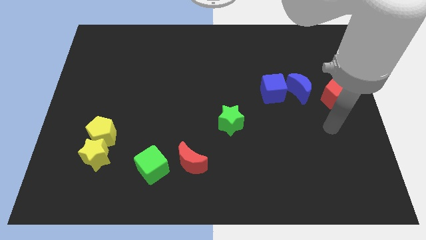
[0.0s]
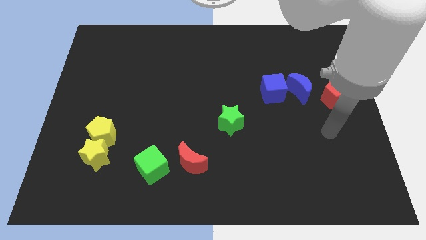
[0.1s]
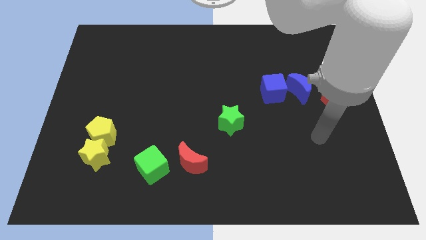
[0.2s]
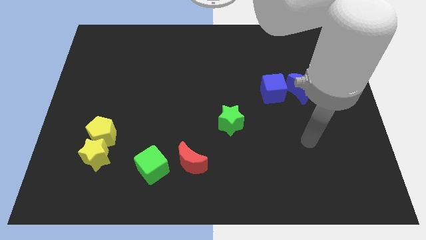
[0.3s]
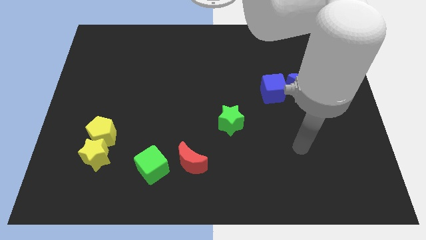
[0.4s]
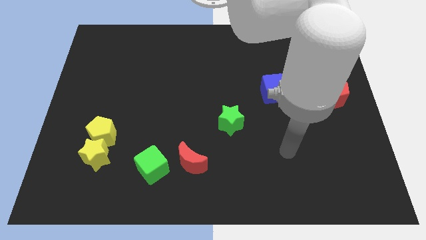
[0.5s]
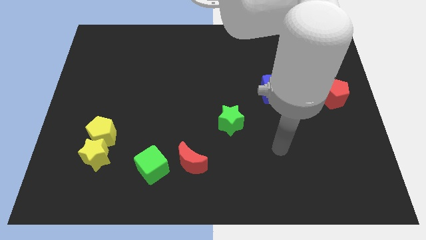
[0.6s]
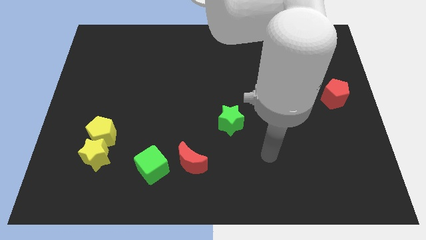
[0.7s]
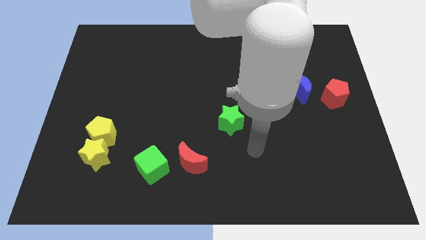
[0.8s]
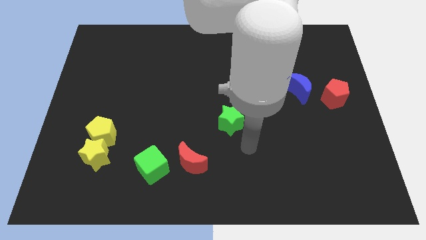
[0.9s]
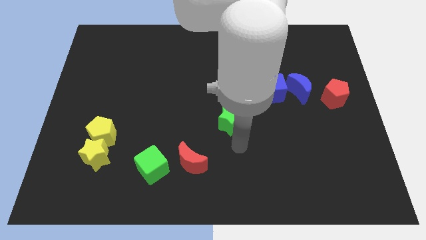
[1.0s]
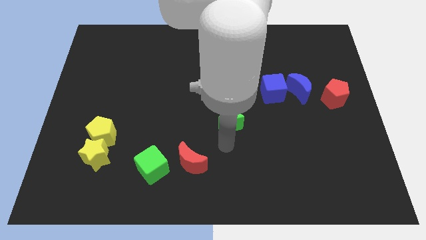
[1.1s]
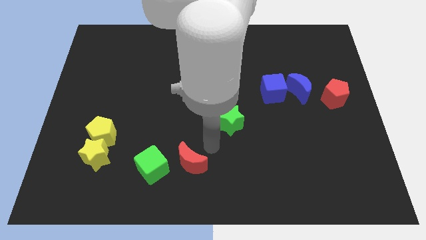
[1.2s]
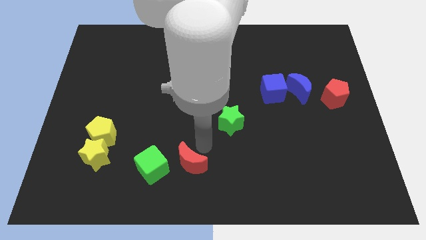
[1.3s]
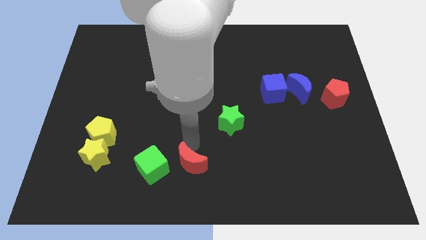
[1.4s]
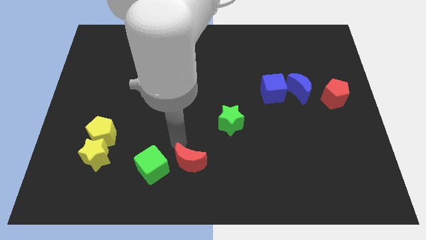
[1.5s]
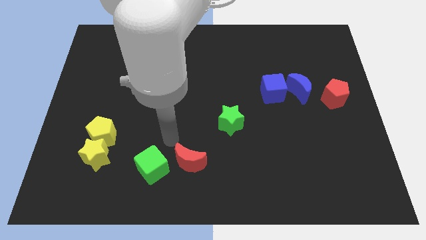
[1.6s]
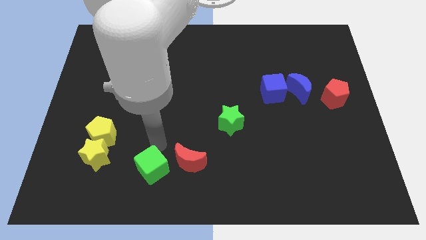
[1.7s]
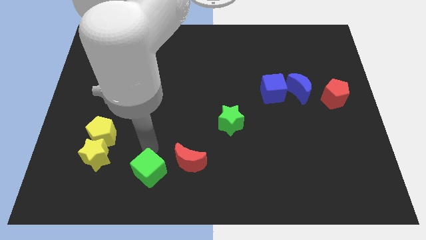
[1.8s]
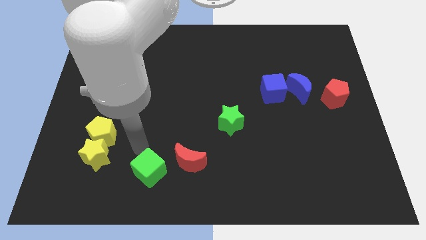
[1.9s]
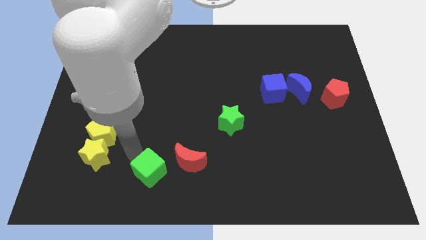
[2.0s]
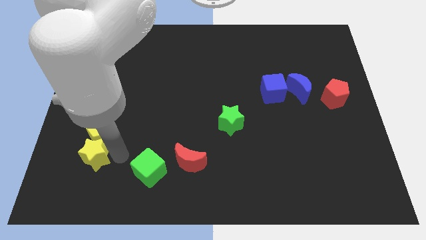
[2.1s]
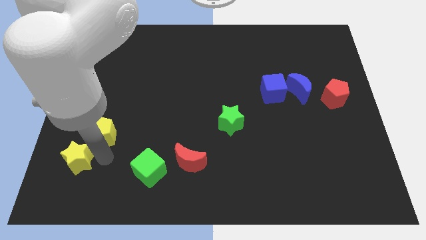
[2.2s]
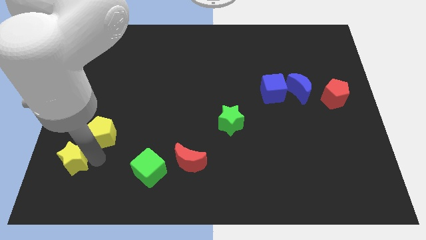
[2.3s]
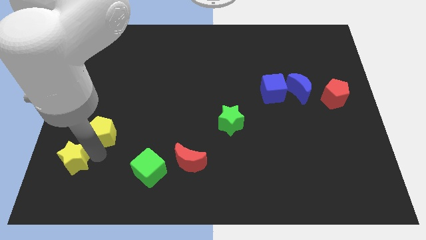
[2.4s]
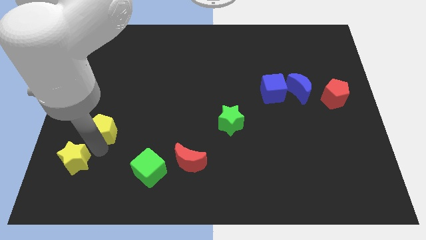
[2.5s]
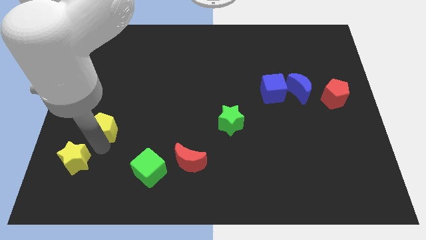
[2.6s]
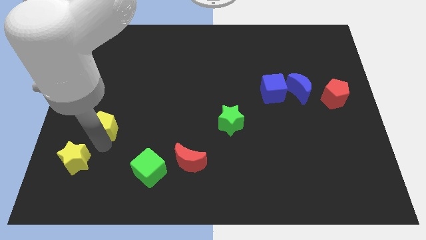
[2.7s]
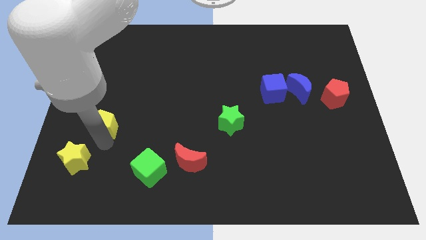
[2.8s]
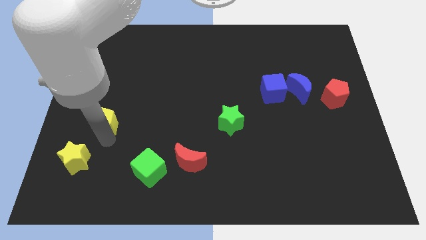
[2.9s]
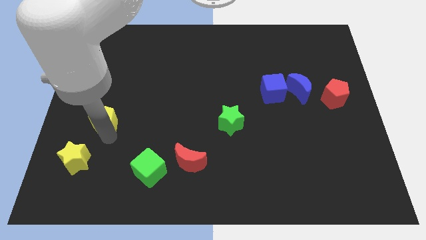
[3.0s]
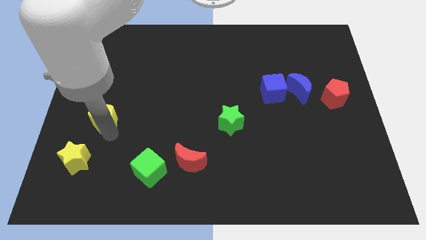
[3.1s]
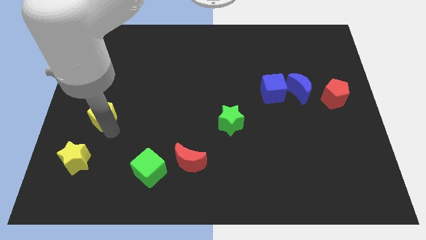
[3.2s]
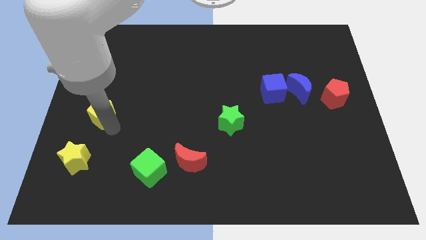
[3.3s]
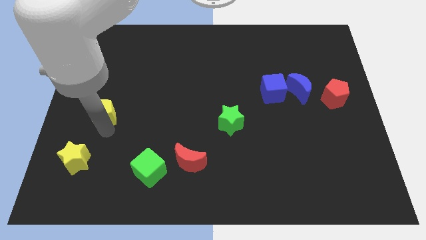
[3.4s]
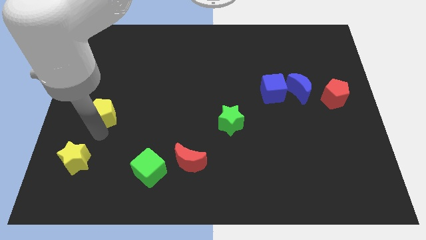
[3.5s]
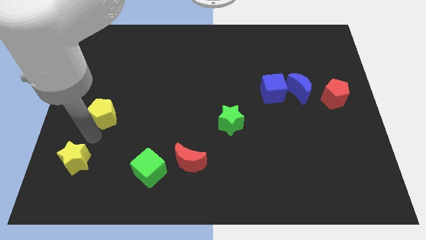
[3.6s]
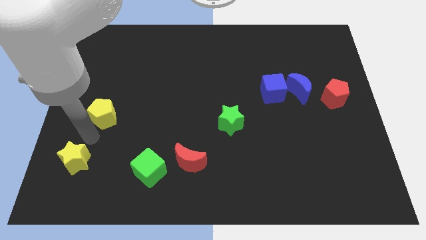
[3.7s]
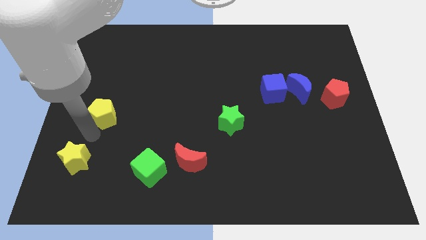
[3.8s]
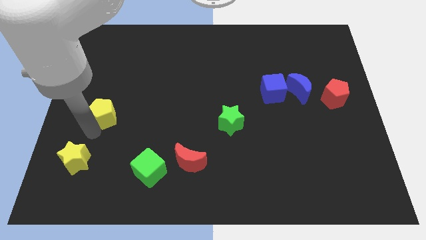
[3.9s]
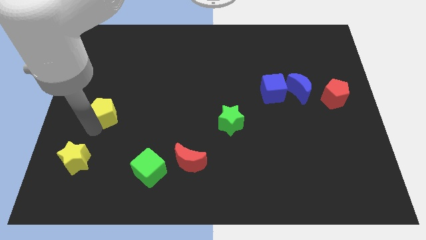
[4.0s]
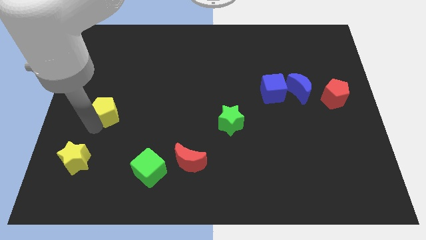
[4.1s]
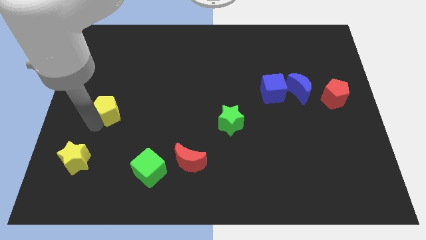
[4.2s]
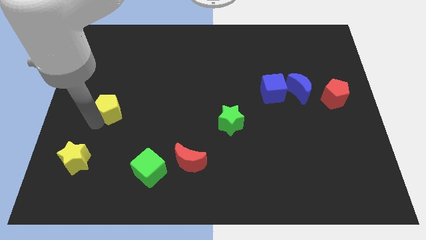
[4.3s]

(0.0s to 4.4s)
push the yellow pentagon up slightly

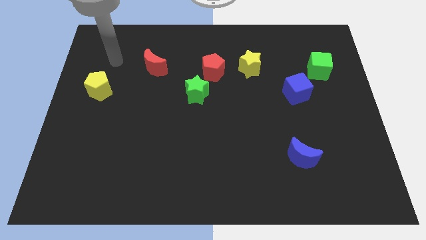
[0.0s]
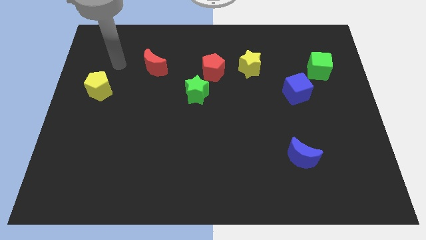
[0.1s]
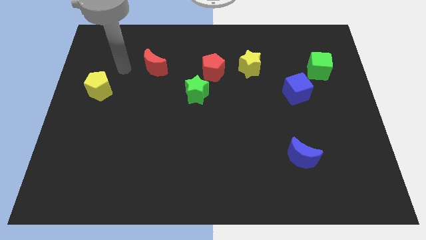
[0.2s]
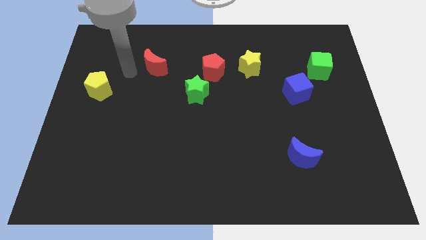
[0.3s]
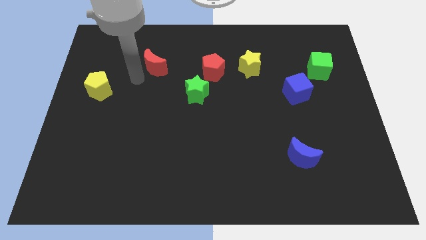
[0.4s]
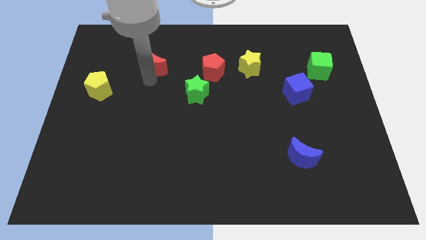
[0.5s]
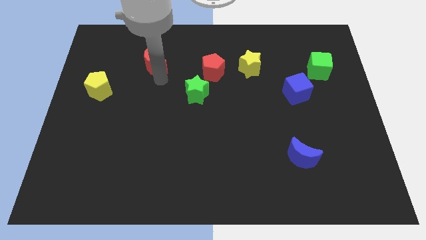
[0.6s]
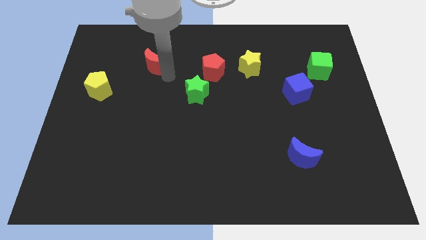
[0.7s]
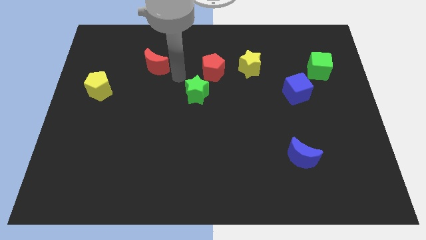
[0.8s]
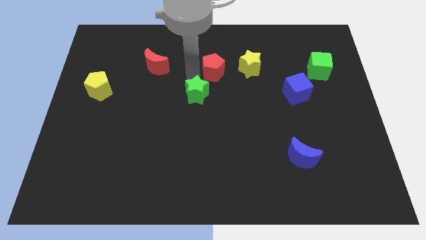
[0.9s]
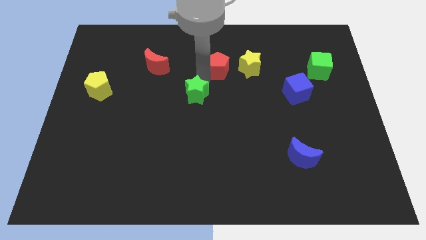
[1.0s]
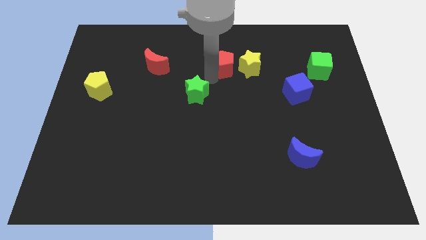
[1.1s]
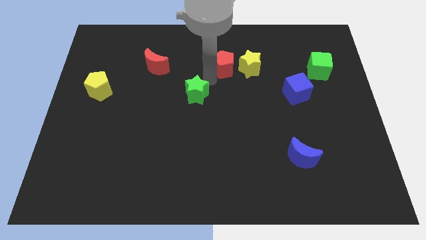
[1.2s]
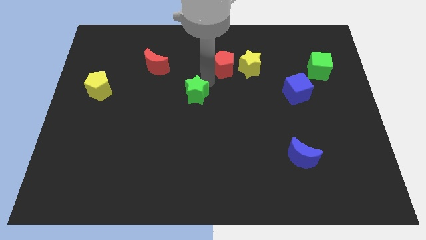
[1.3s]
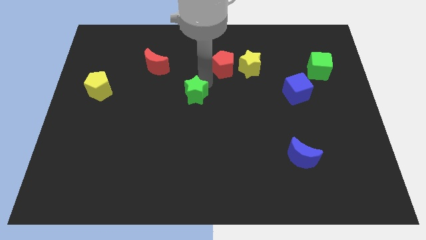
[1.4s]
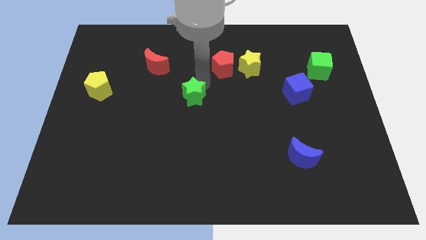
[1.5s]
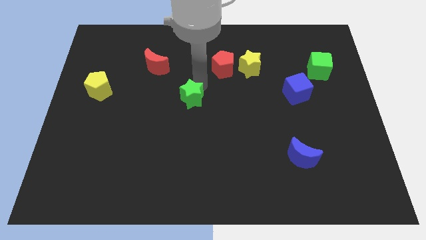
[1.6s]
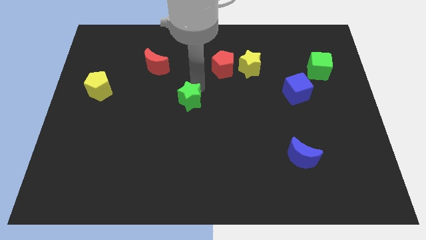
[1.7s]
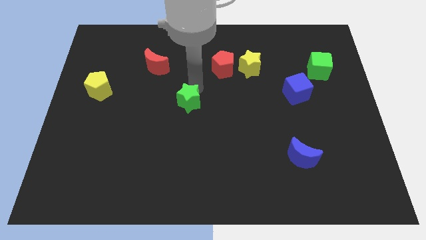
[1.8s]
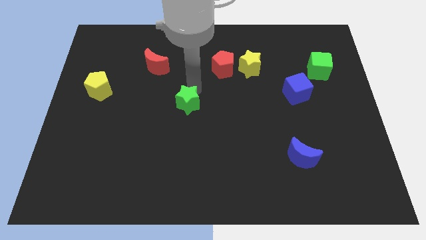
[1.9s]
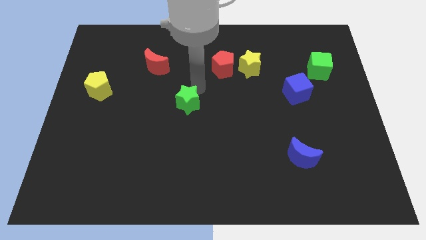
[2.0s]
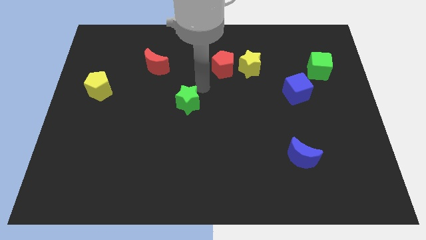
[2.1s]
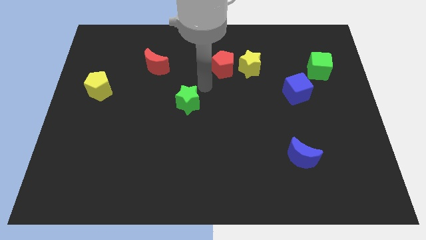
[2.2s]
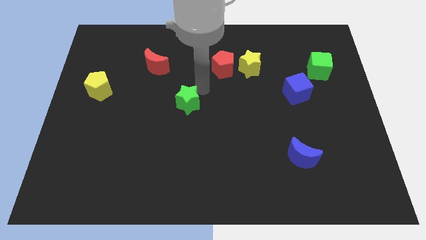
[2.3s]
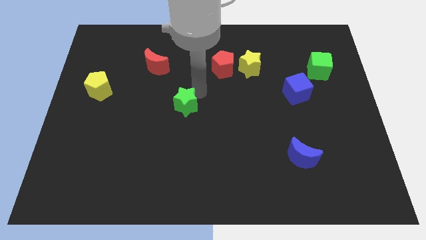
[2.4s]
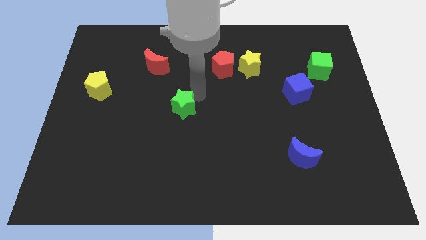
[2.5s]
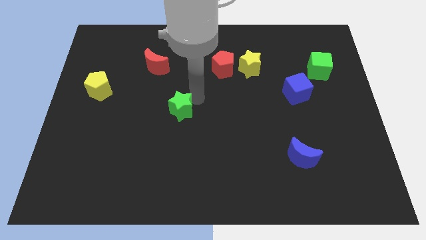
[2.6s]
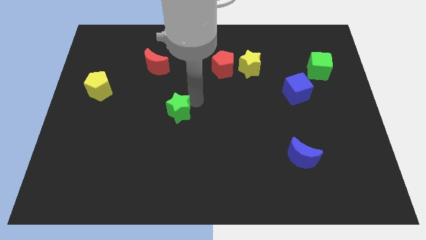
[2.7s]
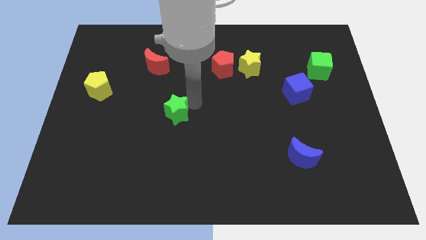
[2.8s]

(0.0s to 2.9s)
slightly move the green star diagonally down and to the left

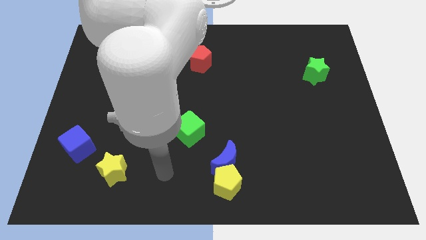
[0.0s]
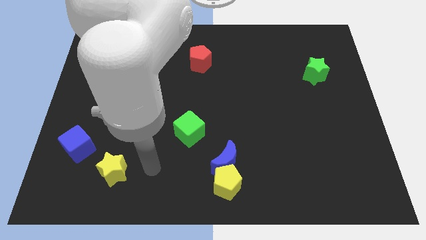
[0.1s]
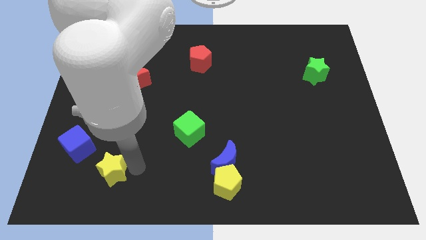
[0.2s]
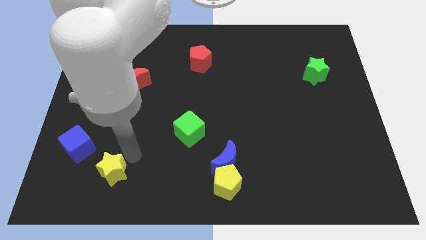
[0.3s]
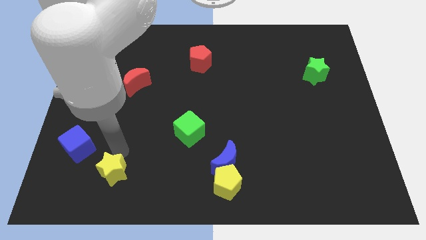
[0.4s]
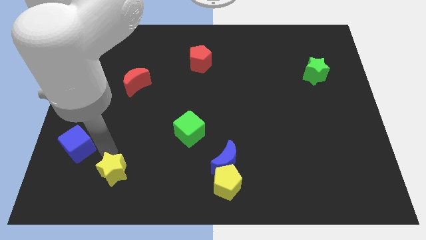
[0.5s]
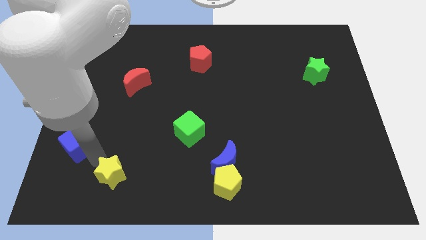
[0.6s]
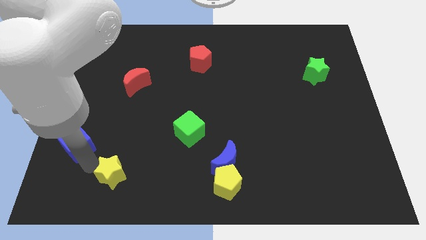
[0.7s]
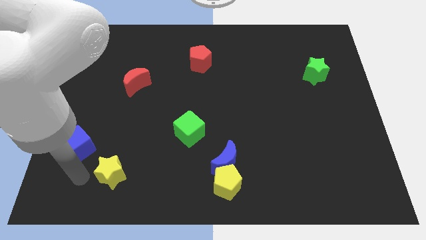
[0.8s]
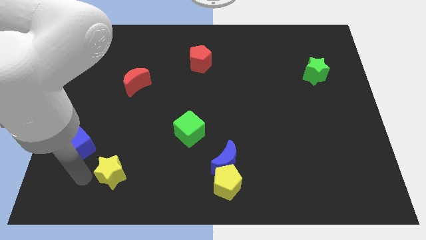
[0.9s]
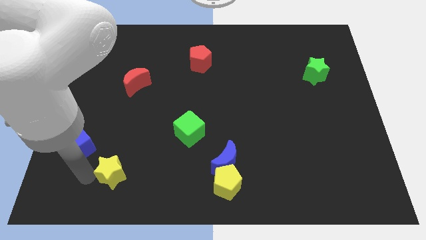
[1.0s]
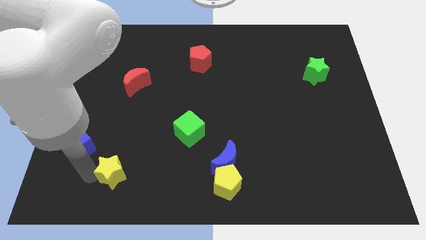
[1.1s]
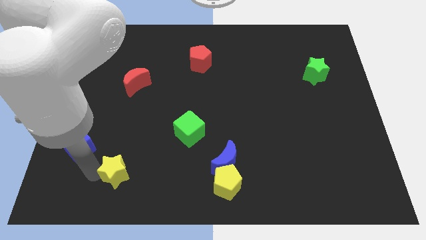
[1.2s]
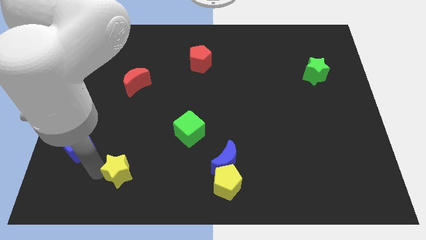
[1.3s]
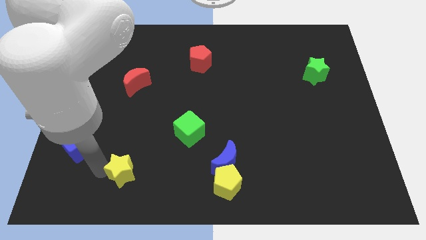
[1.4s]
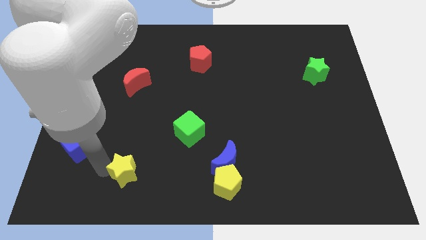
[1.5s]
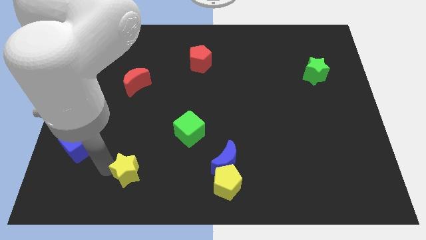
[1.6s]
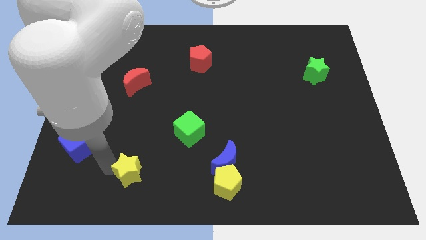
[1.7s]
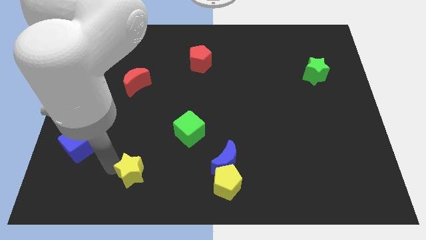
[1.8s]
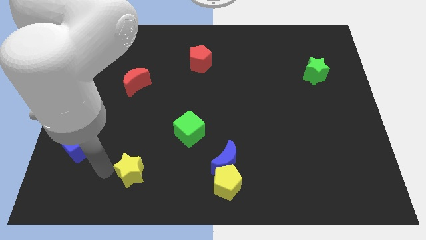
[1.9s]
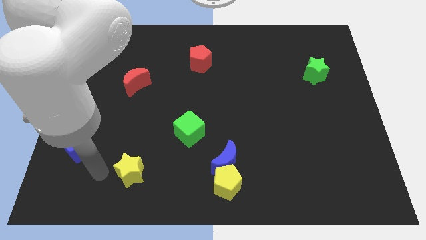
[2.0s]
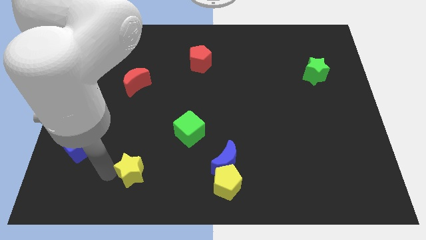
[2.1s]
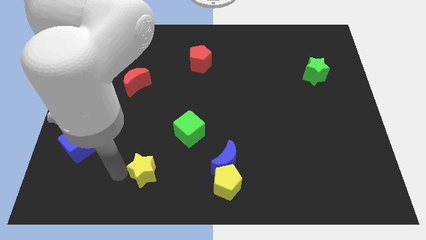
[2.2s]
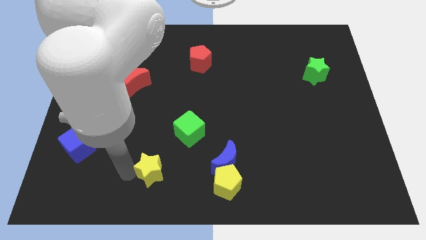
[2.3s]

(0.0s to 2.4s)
slightly push the yellow star to the right
